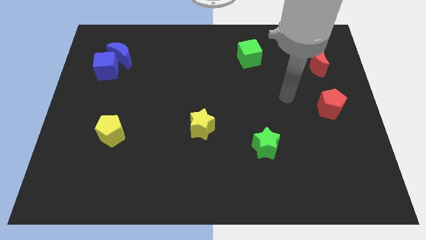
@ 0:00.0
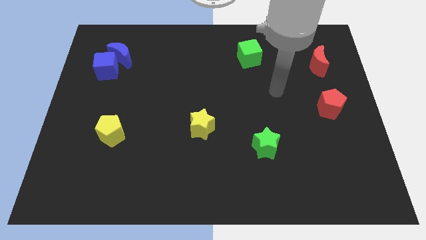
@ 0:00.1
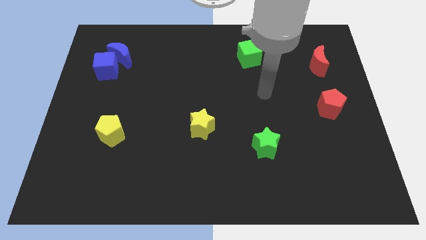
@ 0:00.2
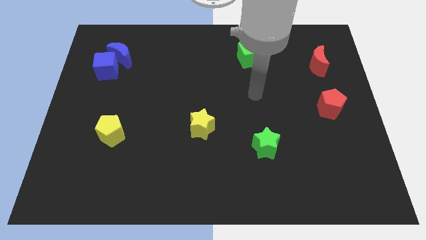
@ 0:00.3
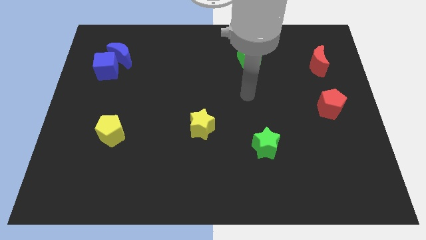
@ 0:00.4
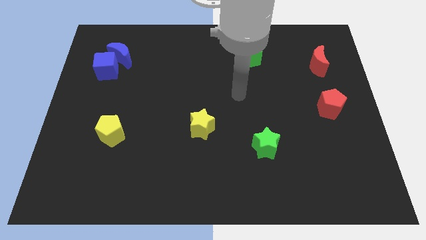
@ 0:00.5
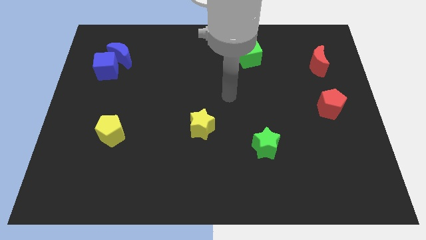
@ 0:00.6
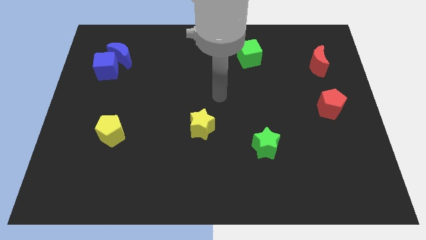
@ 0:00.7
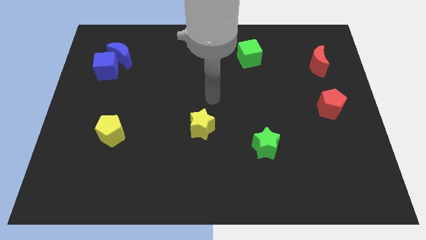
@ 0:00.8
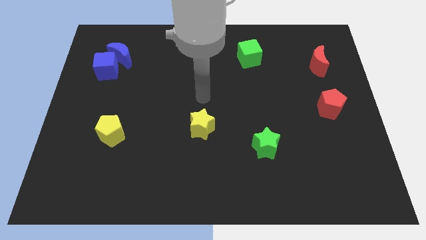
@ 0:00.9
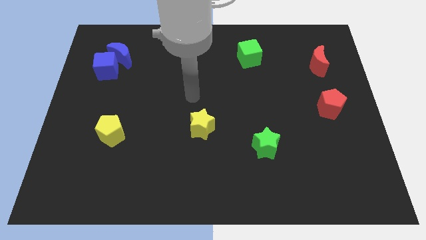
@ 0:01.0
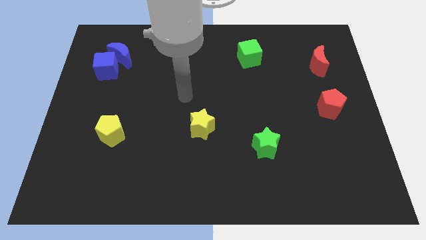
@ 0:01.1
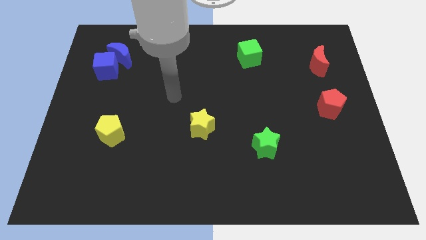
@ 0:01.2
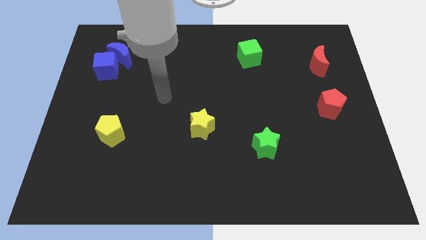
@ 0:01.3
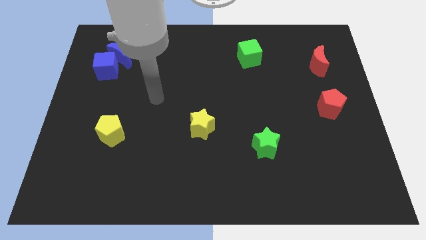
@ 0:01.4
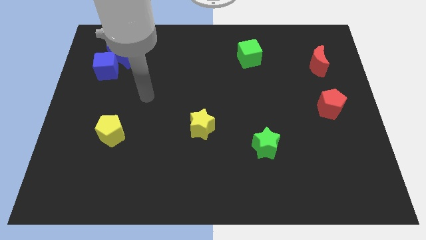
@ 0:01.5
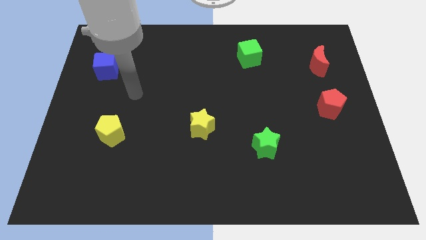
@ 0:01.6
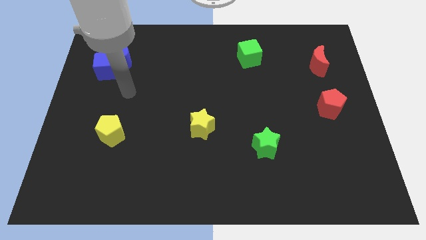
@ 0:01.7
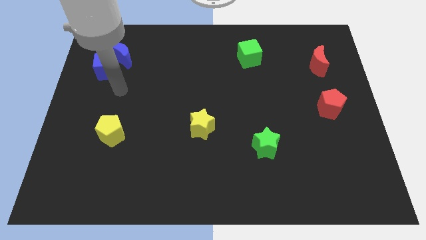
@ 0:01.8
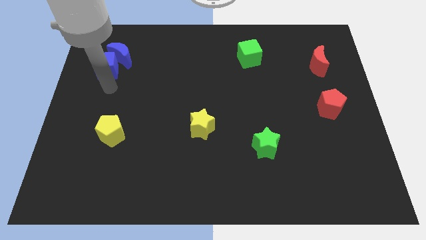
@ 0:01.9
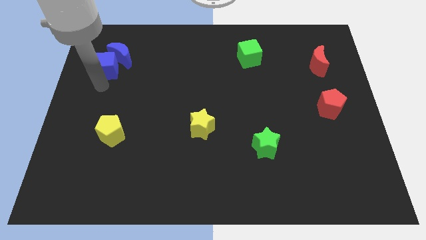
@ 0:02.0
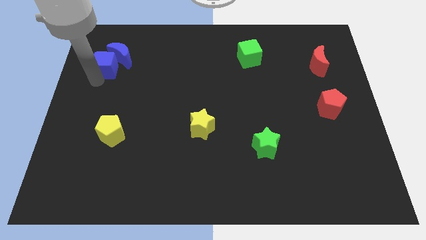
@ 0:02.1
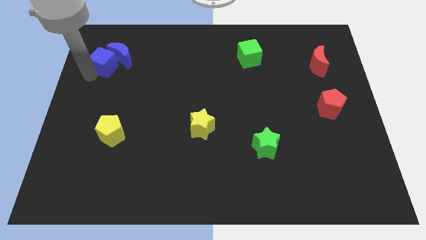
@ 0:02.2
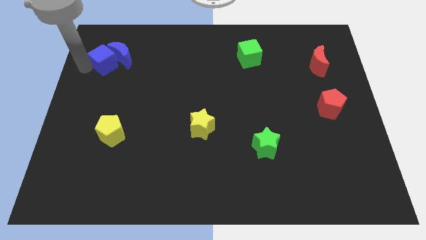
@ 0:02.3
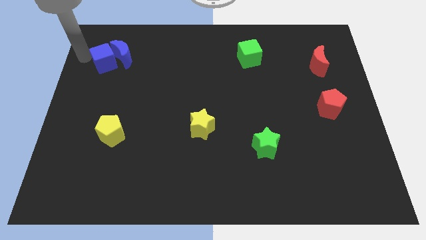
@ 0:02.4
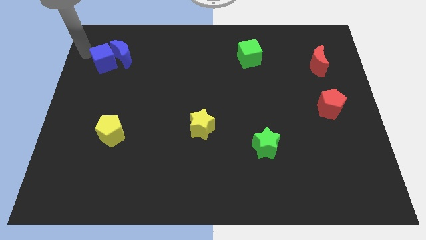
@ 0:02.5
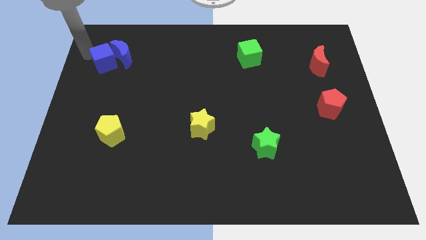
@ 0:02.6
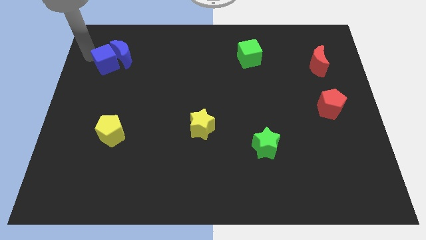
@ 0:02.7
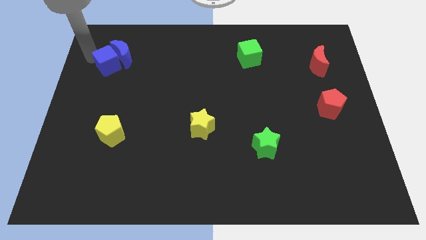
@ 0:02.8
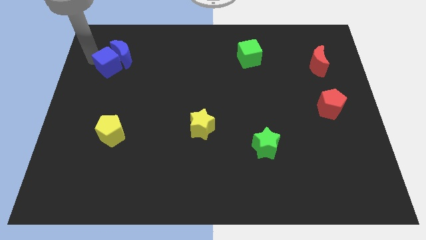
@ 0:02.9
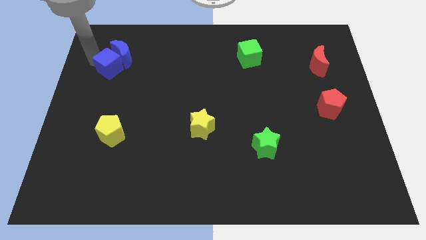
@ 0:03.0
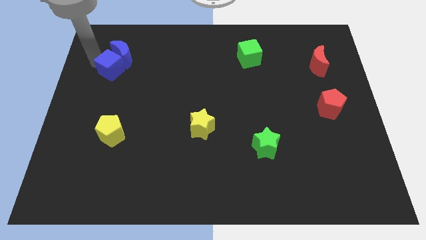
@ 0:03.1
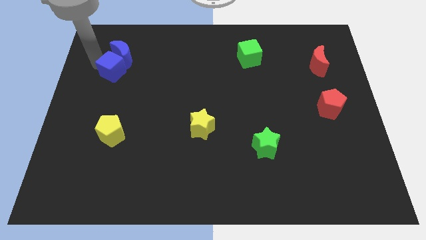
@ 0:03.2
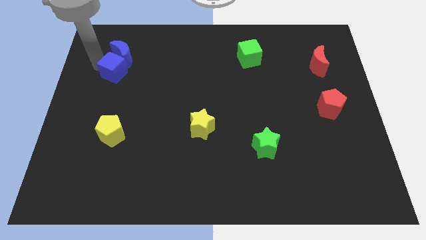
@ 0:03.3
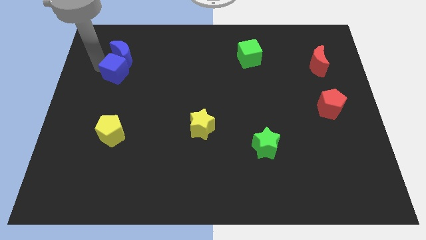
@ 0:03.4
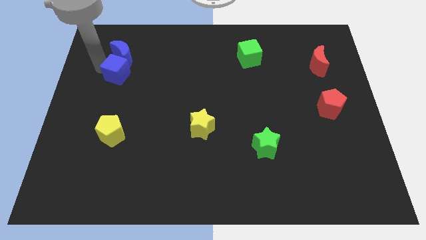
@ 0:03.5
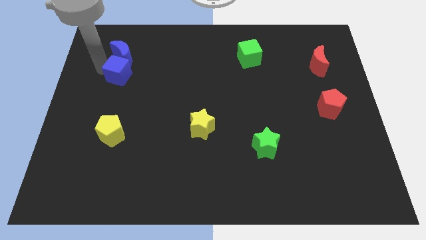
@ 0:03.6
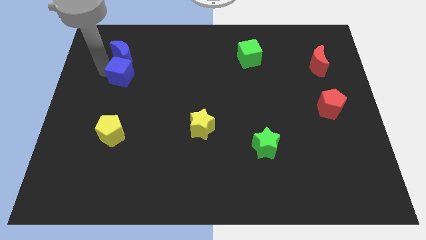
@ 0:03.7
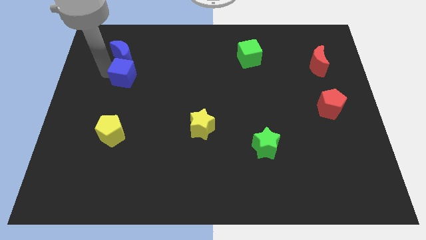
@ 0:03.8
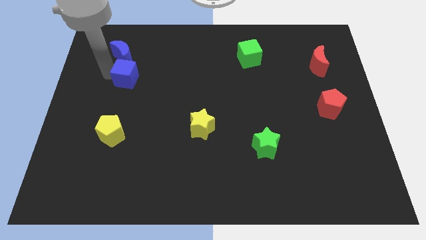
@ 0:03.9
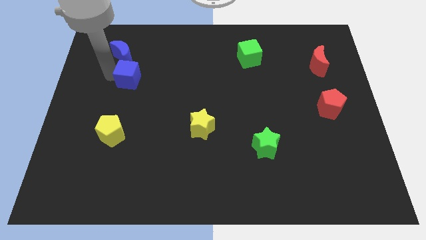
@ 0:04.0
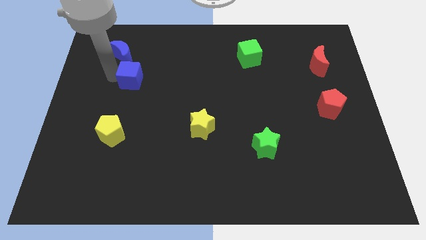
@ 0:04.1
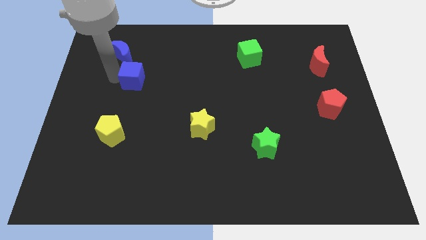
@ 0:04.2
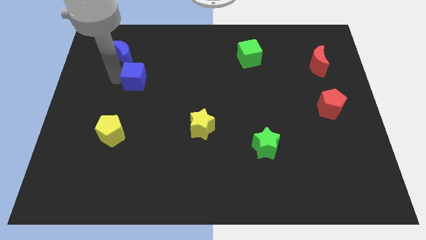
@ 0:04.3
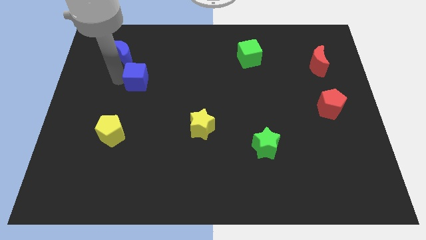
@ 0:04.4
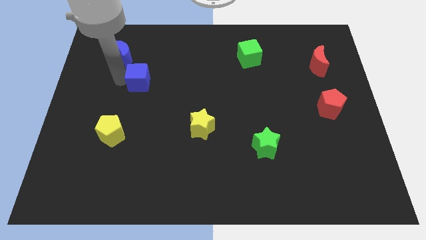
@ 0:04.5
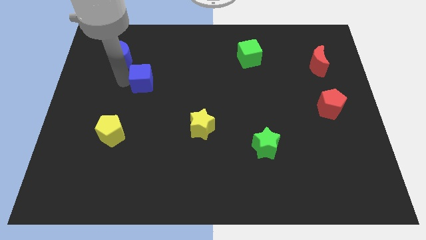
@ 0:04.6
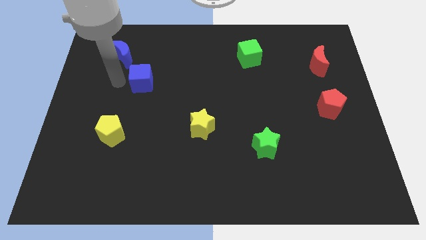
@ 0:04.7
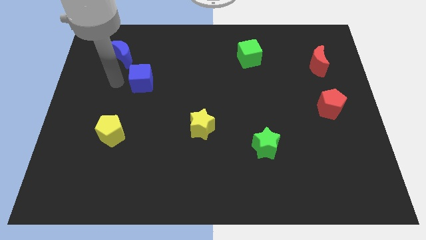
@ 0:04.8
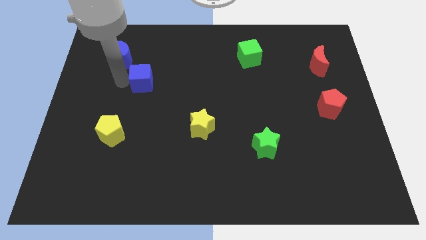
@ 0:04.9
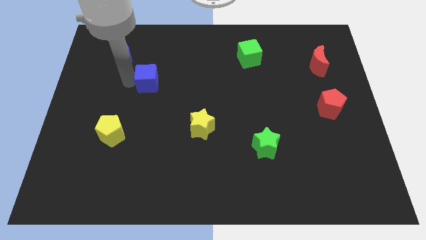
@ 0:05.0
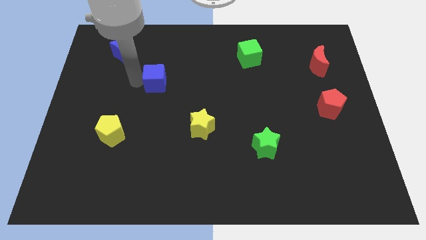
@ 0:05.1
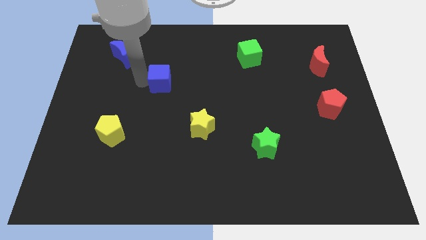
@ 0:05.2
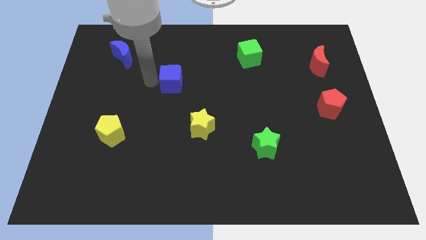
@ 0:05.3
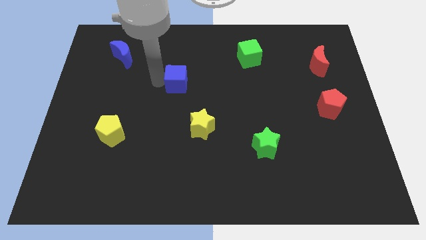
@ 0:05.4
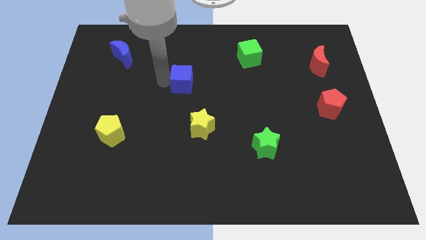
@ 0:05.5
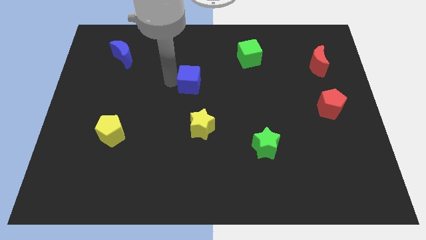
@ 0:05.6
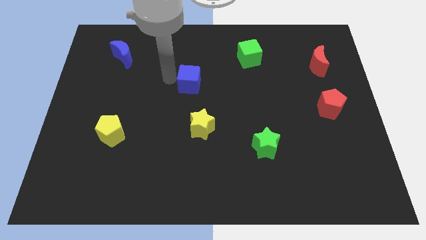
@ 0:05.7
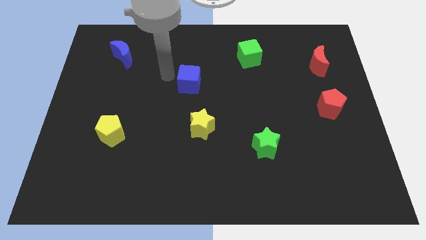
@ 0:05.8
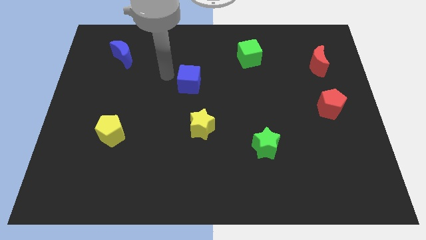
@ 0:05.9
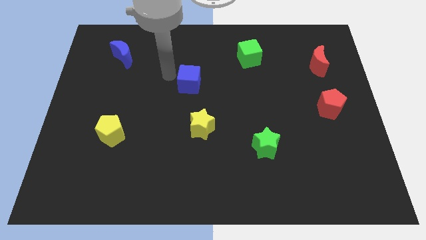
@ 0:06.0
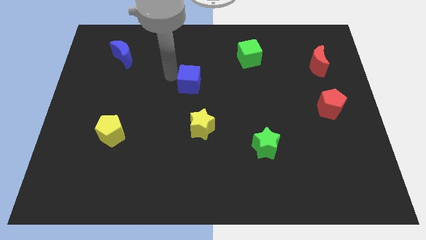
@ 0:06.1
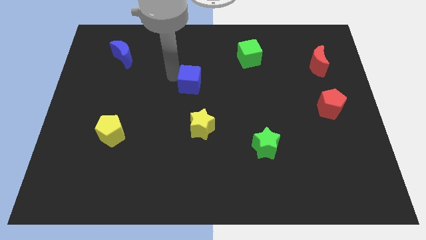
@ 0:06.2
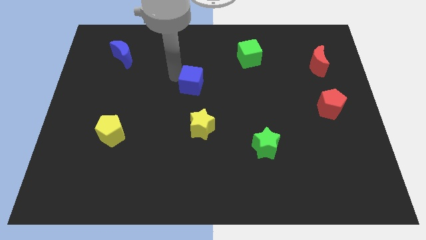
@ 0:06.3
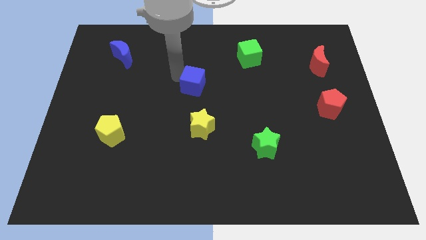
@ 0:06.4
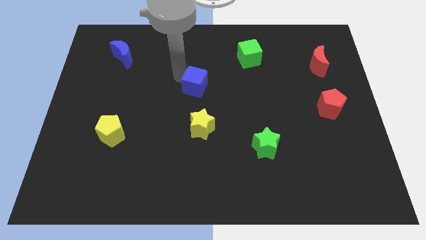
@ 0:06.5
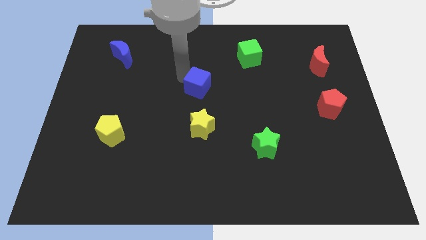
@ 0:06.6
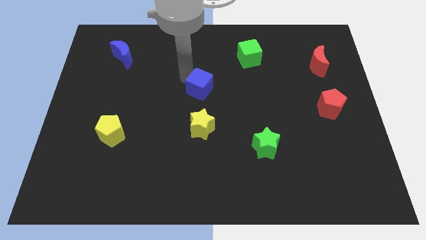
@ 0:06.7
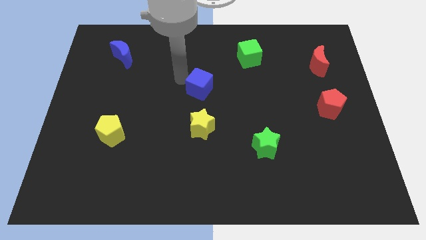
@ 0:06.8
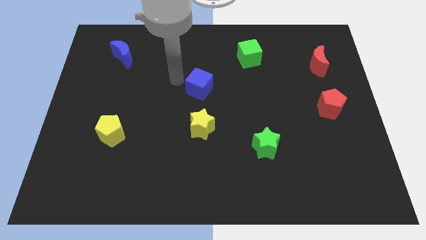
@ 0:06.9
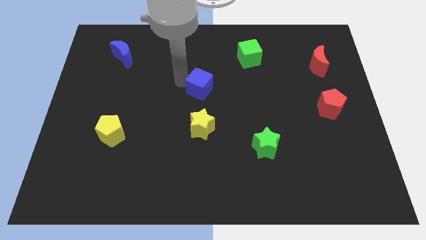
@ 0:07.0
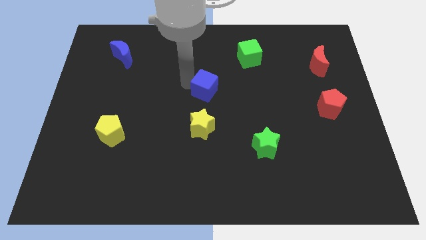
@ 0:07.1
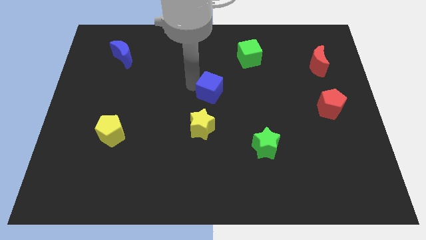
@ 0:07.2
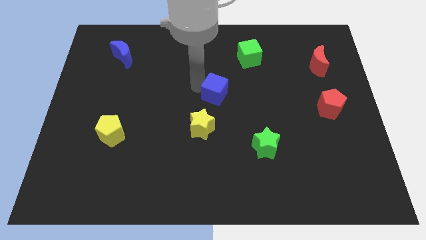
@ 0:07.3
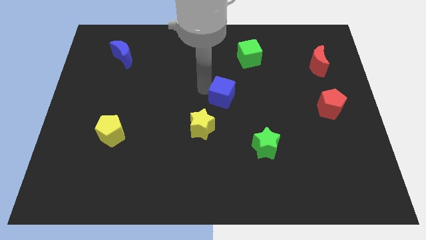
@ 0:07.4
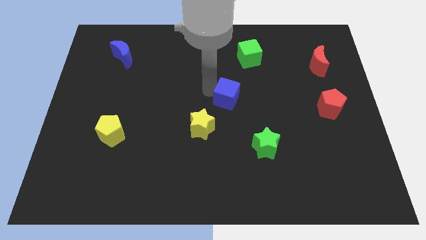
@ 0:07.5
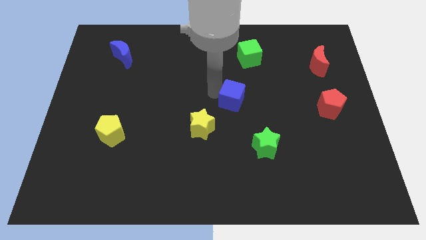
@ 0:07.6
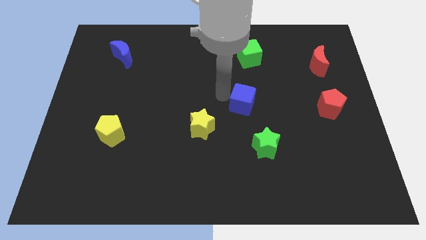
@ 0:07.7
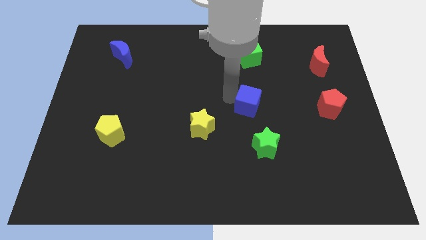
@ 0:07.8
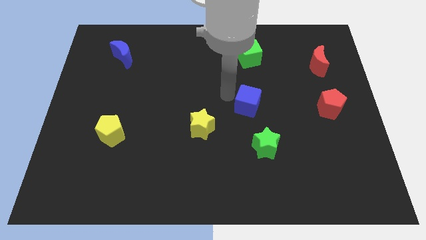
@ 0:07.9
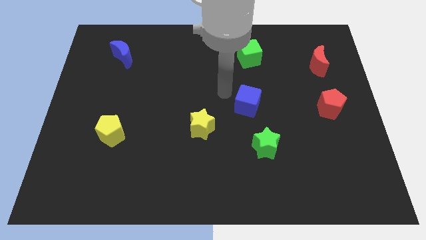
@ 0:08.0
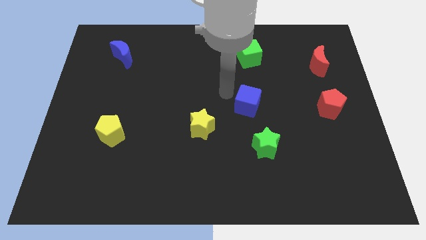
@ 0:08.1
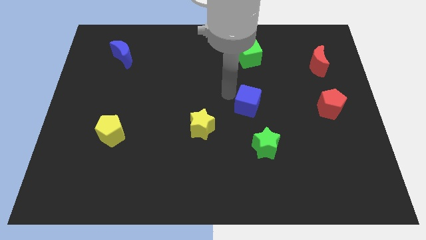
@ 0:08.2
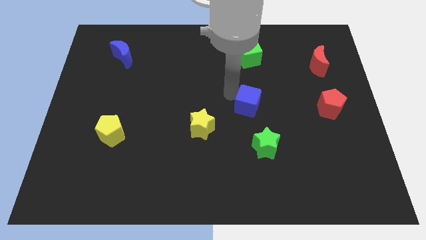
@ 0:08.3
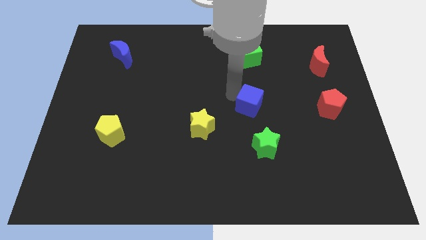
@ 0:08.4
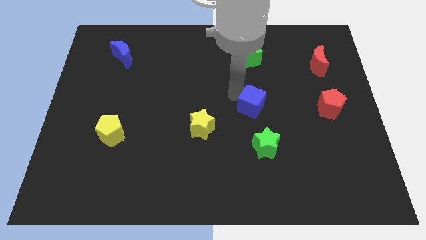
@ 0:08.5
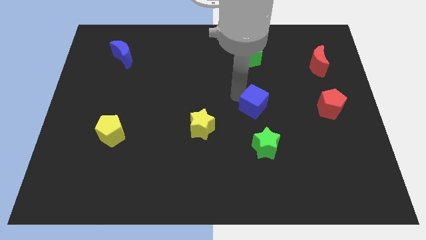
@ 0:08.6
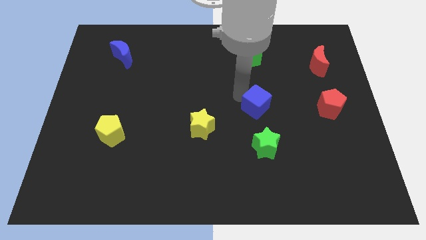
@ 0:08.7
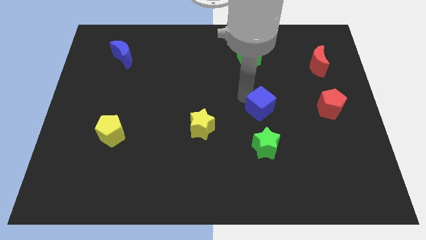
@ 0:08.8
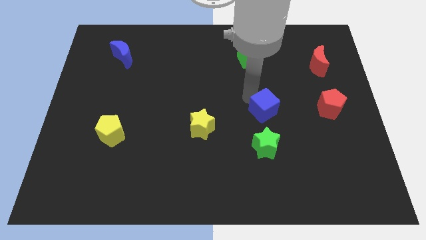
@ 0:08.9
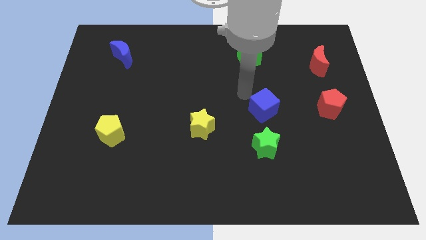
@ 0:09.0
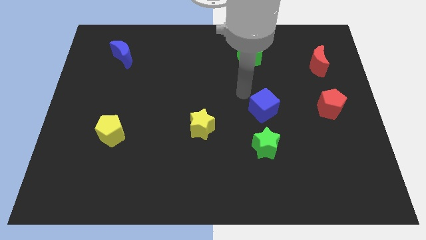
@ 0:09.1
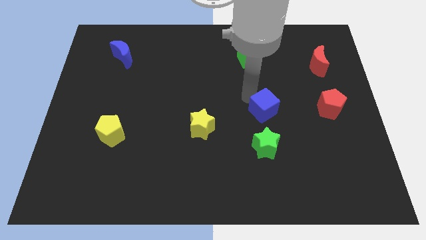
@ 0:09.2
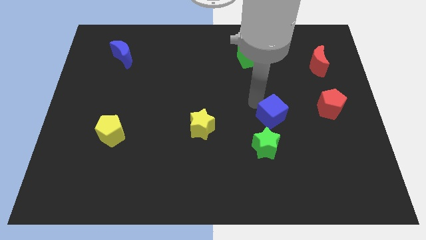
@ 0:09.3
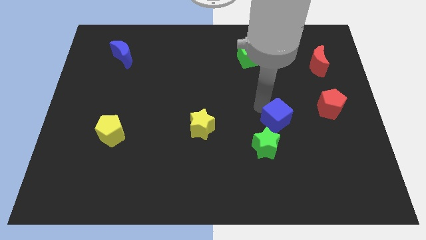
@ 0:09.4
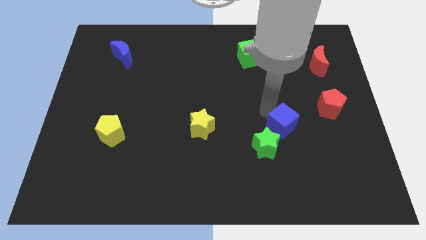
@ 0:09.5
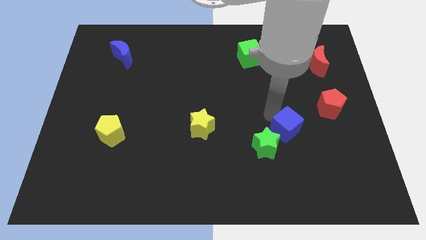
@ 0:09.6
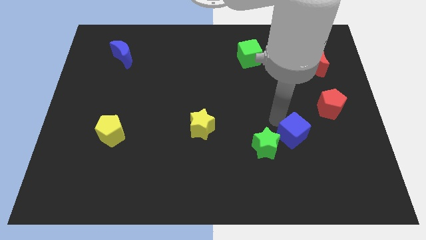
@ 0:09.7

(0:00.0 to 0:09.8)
slide the blue cube right of the green star
